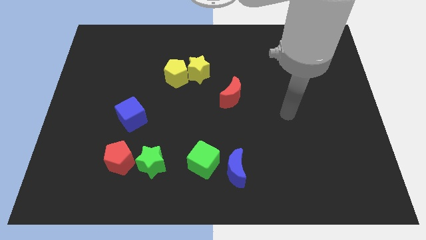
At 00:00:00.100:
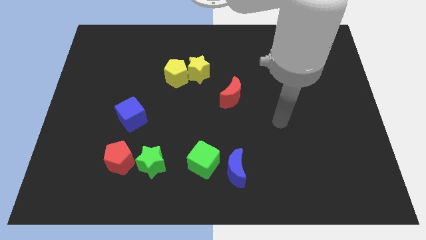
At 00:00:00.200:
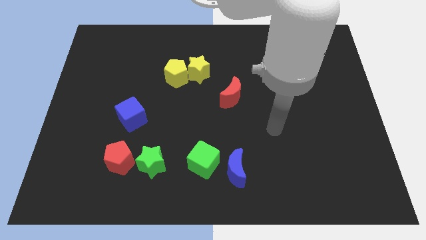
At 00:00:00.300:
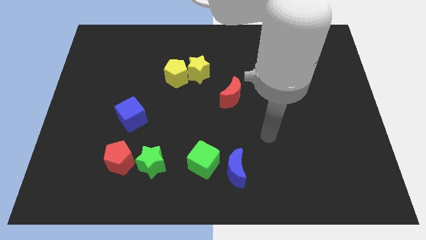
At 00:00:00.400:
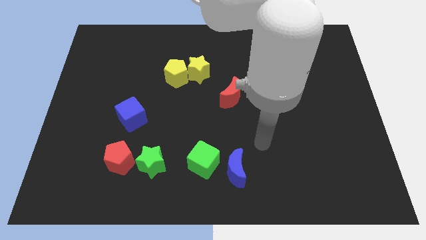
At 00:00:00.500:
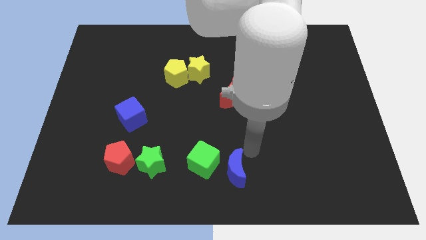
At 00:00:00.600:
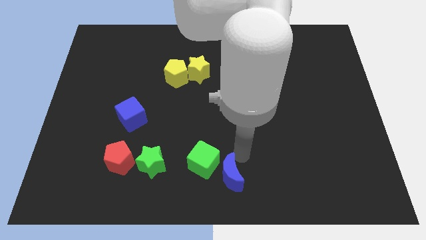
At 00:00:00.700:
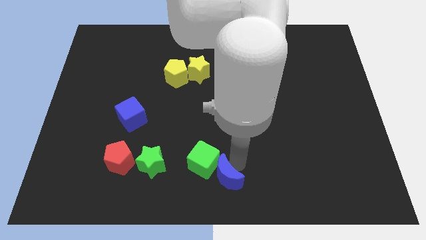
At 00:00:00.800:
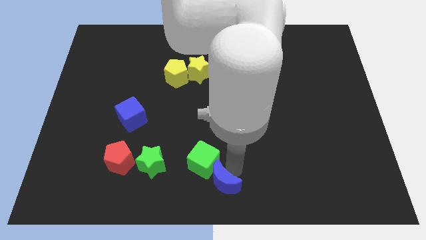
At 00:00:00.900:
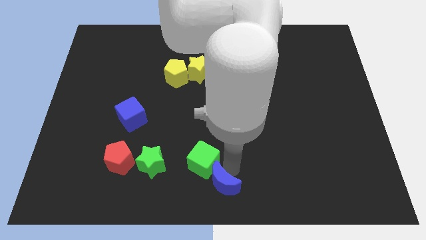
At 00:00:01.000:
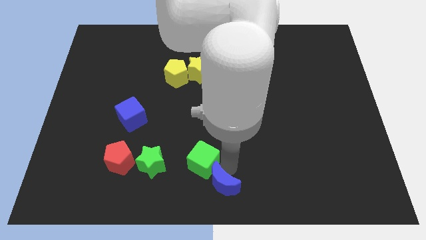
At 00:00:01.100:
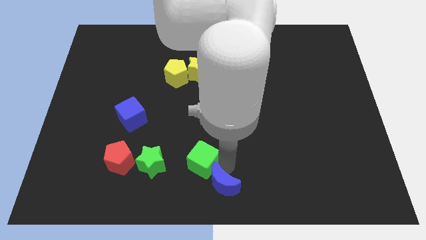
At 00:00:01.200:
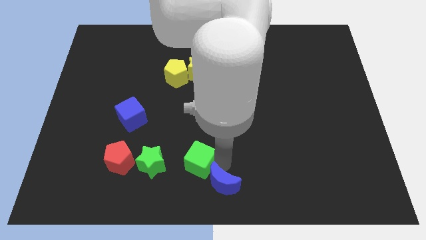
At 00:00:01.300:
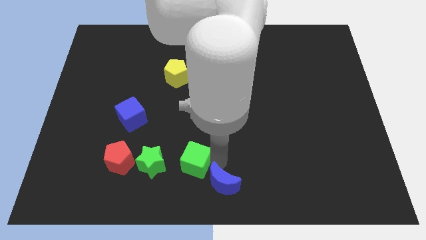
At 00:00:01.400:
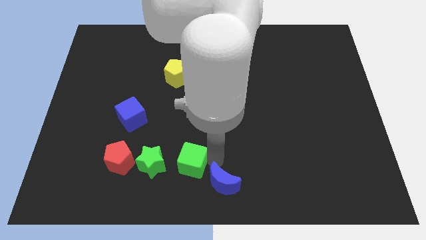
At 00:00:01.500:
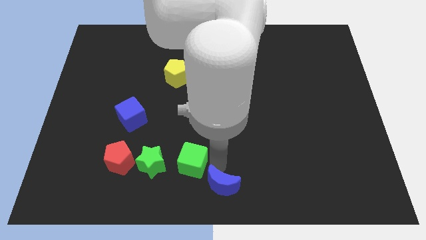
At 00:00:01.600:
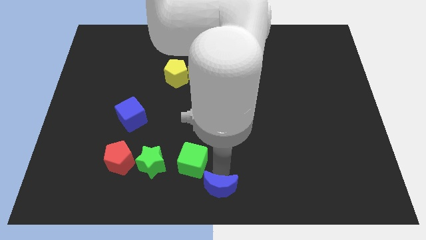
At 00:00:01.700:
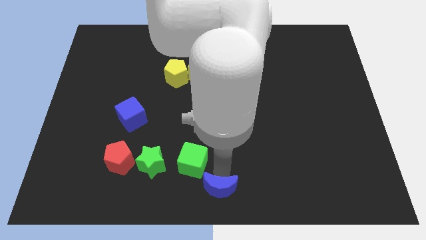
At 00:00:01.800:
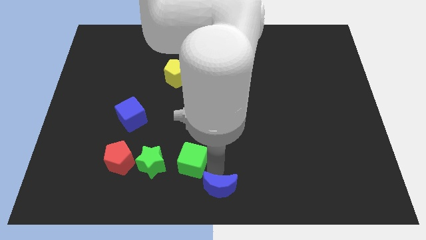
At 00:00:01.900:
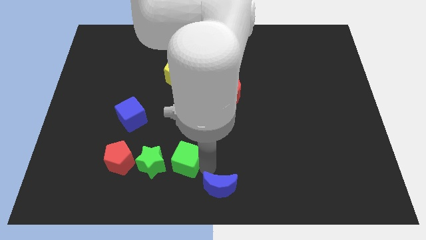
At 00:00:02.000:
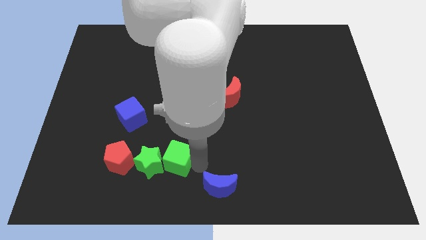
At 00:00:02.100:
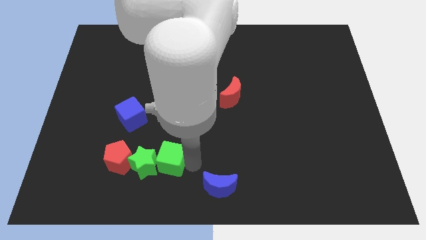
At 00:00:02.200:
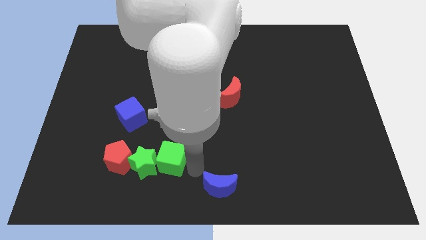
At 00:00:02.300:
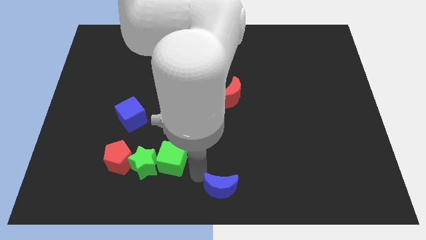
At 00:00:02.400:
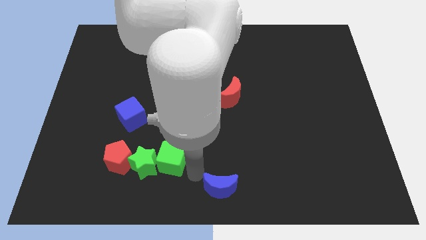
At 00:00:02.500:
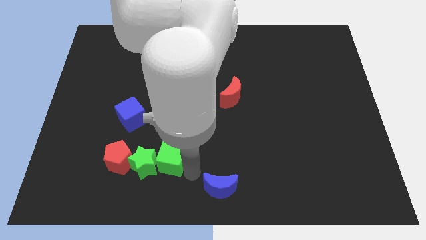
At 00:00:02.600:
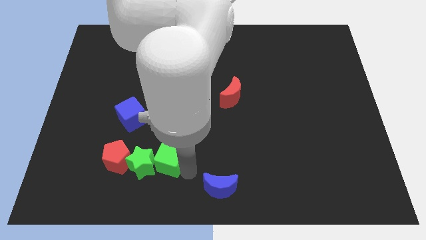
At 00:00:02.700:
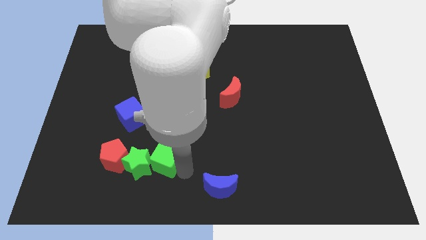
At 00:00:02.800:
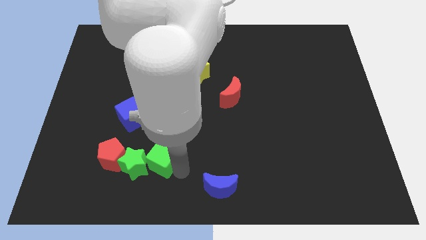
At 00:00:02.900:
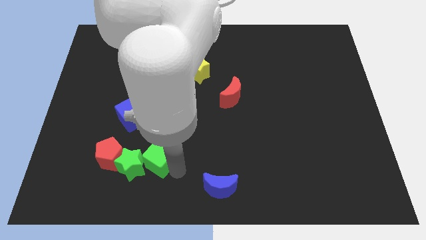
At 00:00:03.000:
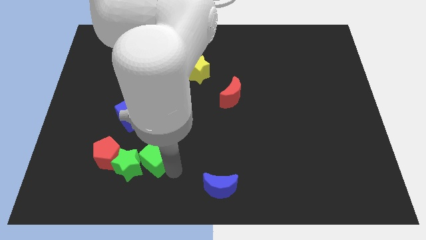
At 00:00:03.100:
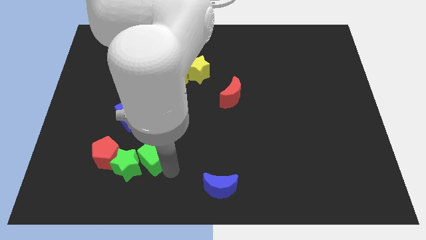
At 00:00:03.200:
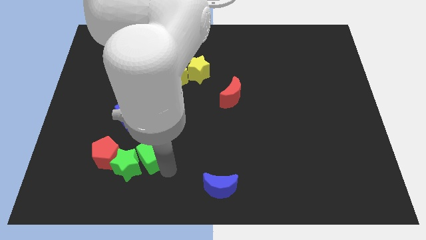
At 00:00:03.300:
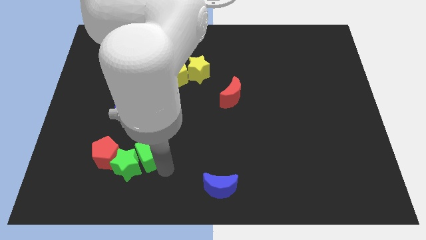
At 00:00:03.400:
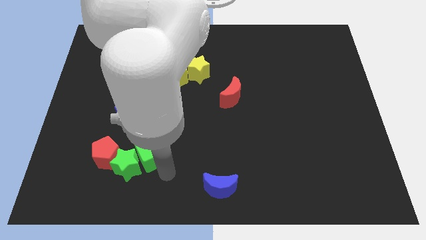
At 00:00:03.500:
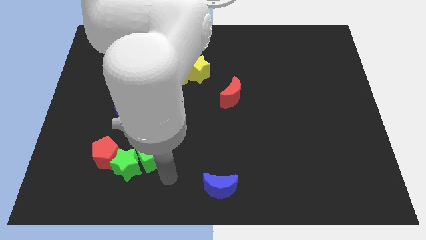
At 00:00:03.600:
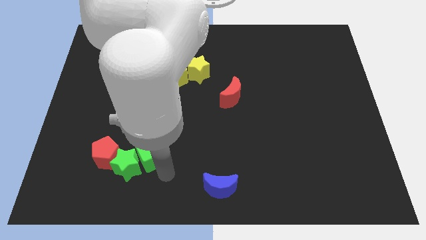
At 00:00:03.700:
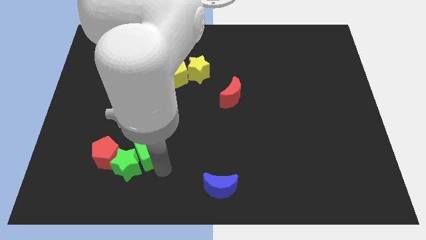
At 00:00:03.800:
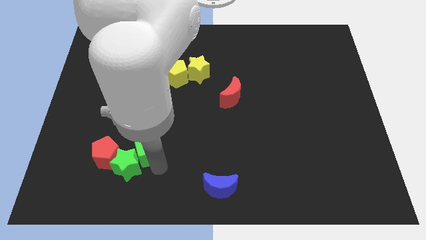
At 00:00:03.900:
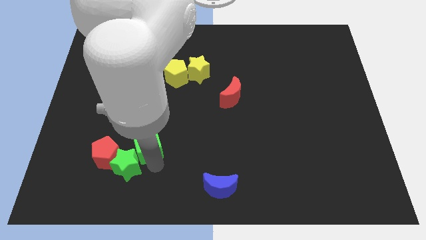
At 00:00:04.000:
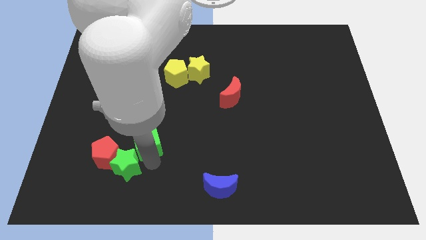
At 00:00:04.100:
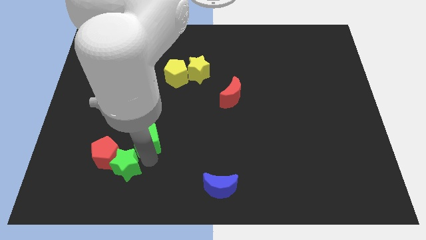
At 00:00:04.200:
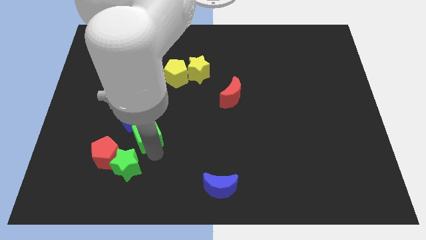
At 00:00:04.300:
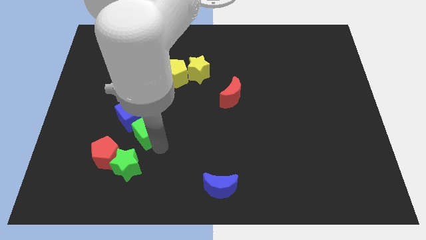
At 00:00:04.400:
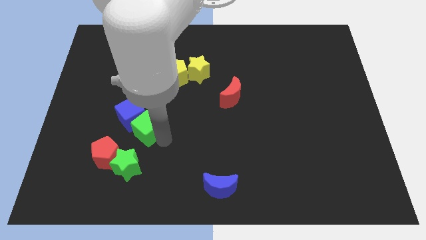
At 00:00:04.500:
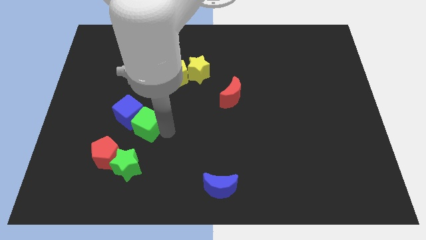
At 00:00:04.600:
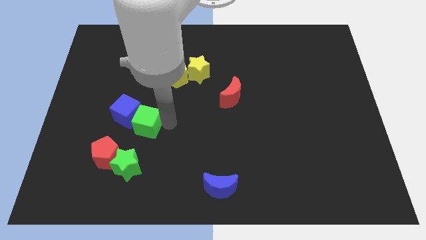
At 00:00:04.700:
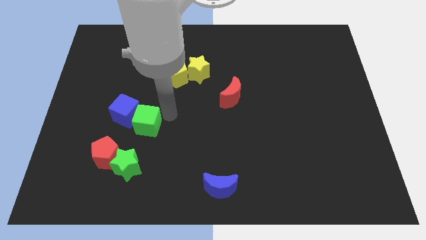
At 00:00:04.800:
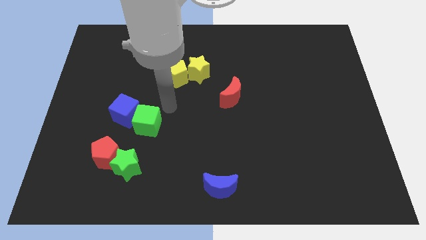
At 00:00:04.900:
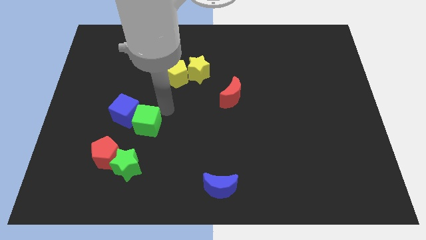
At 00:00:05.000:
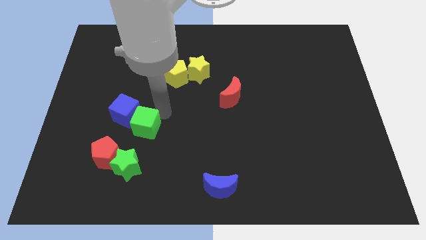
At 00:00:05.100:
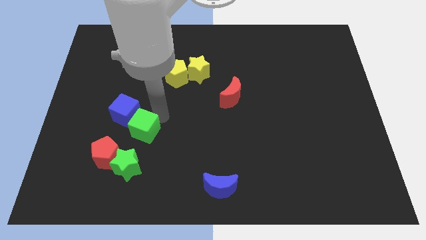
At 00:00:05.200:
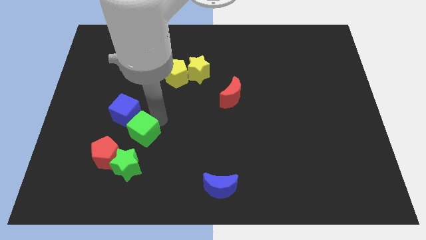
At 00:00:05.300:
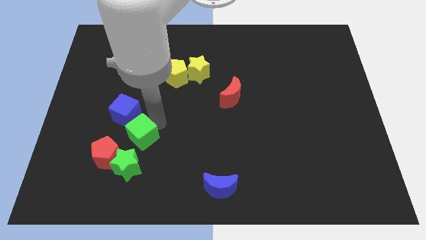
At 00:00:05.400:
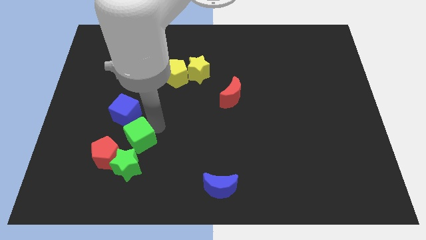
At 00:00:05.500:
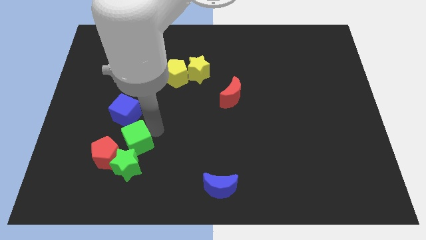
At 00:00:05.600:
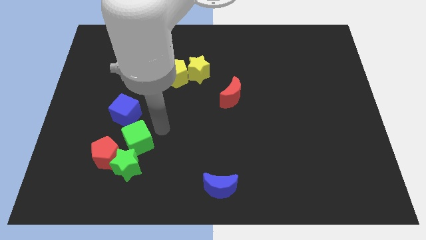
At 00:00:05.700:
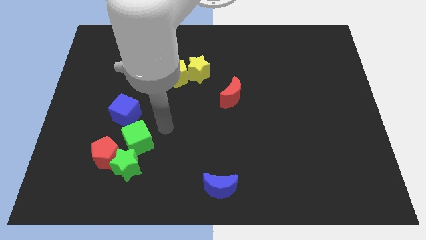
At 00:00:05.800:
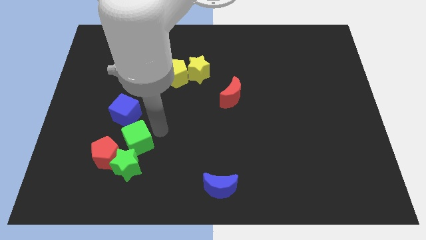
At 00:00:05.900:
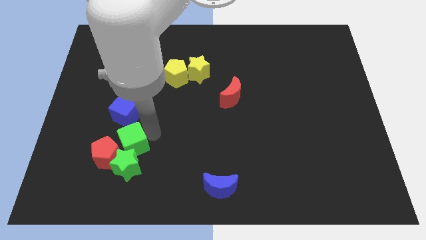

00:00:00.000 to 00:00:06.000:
put the green cube next to the red pentagon

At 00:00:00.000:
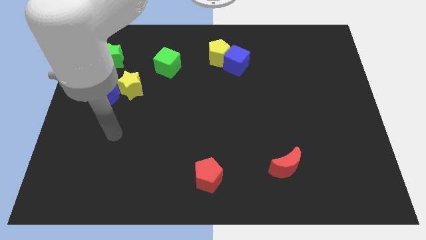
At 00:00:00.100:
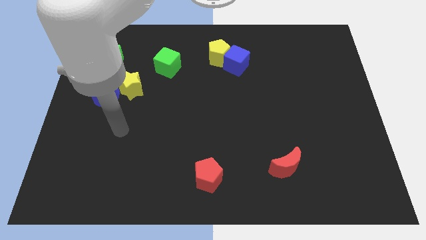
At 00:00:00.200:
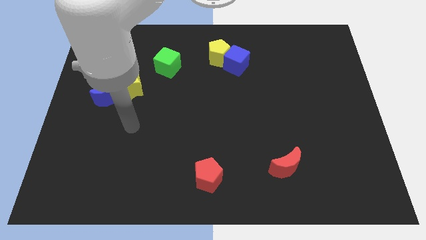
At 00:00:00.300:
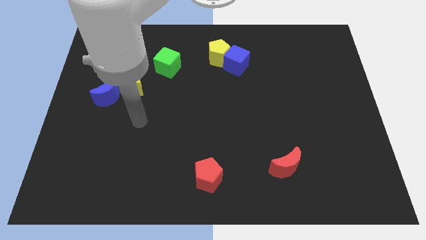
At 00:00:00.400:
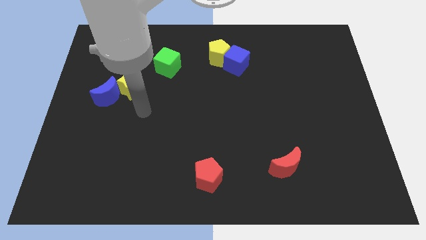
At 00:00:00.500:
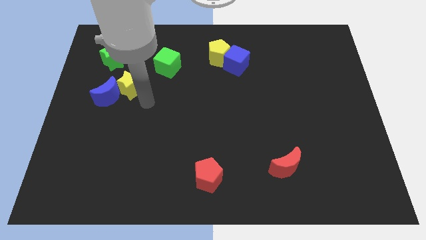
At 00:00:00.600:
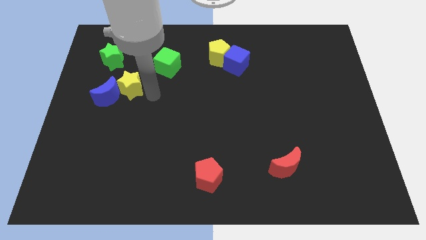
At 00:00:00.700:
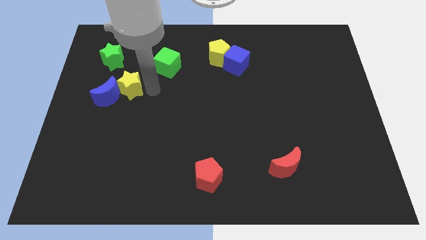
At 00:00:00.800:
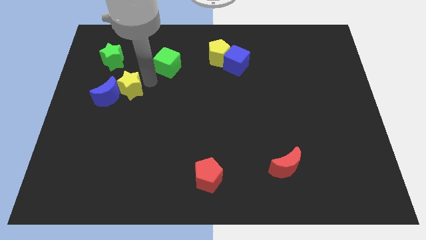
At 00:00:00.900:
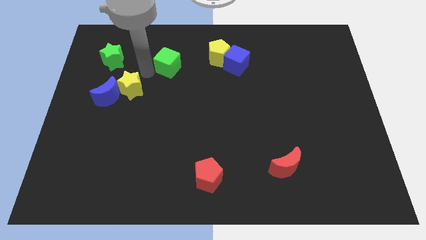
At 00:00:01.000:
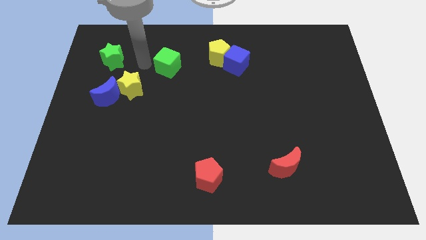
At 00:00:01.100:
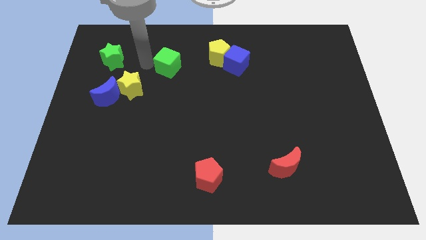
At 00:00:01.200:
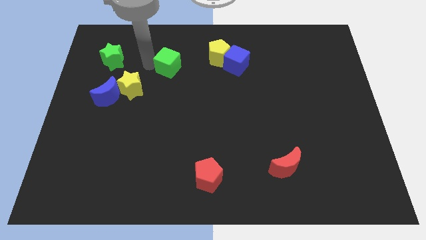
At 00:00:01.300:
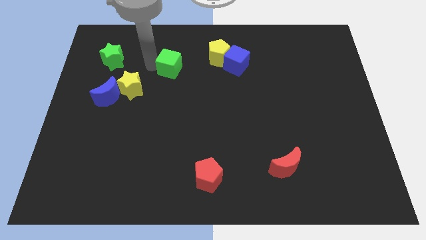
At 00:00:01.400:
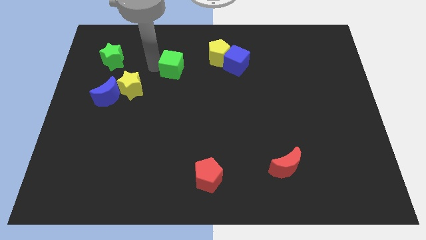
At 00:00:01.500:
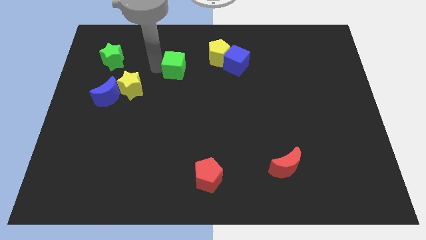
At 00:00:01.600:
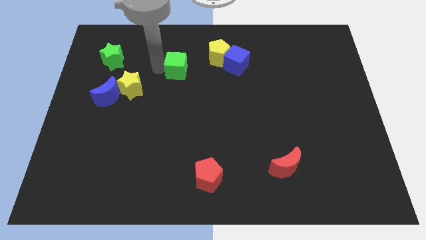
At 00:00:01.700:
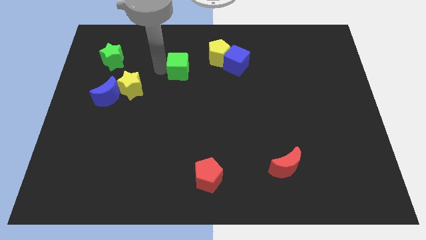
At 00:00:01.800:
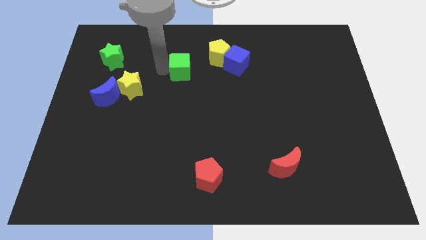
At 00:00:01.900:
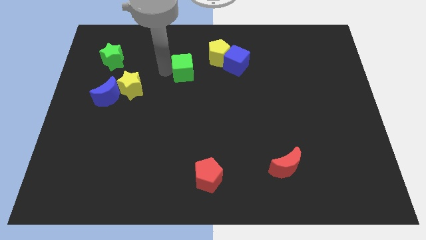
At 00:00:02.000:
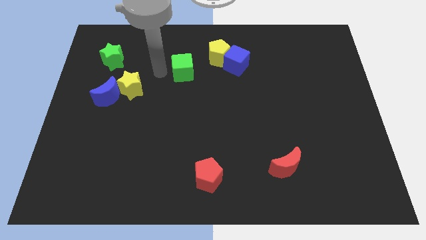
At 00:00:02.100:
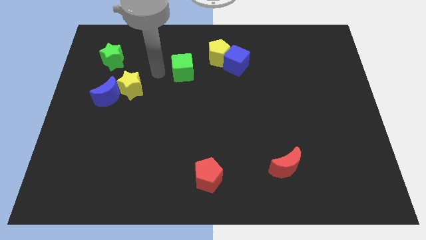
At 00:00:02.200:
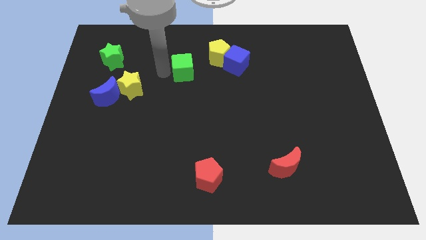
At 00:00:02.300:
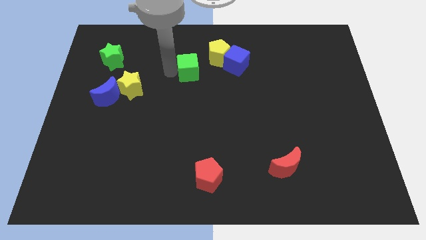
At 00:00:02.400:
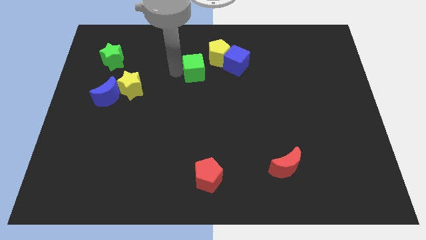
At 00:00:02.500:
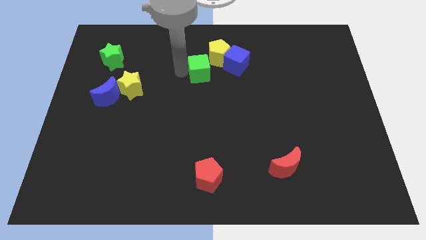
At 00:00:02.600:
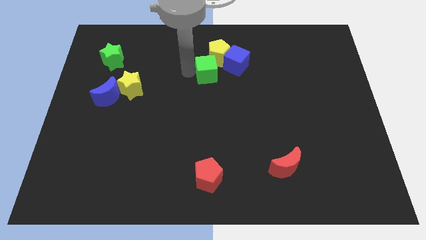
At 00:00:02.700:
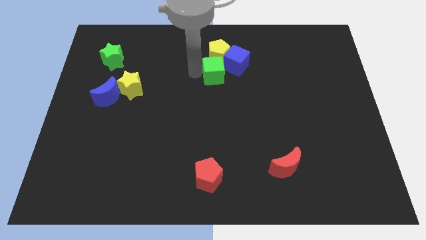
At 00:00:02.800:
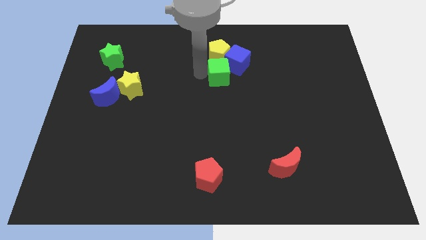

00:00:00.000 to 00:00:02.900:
slide the green cube next to the blue cube
